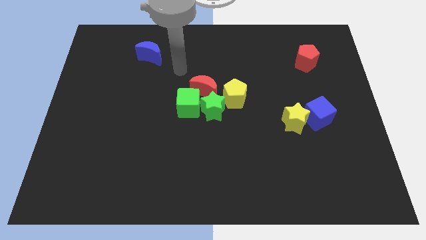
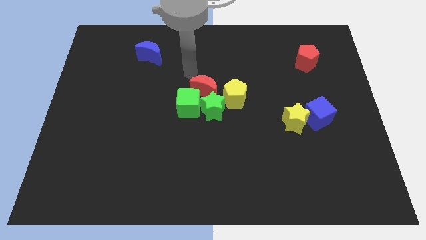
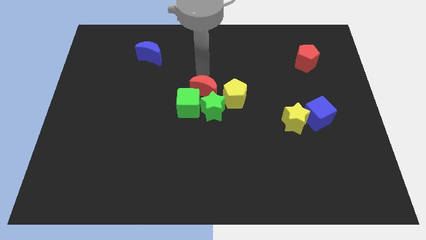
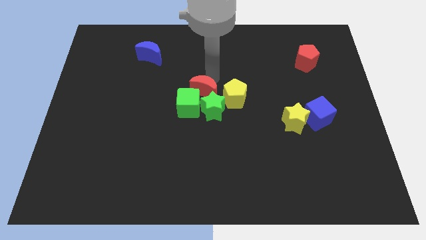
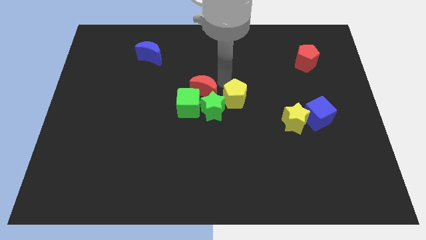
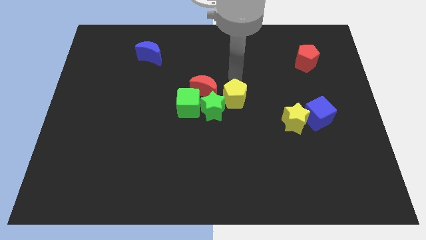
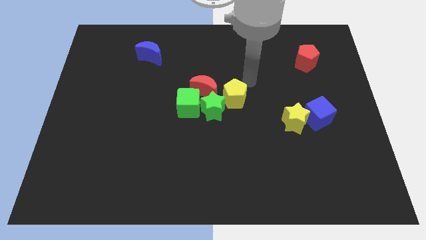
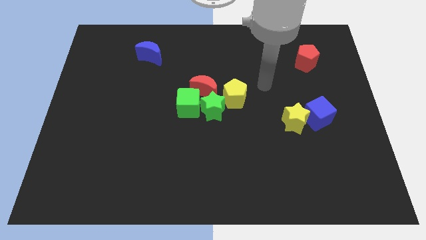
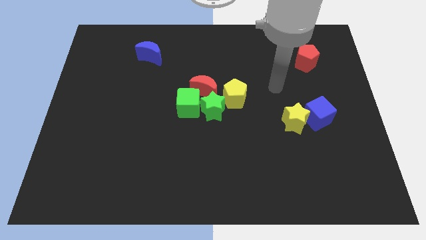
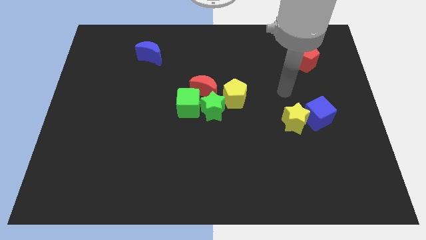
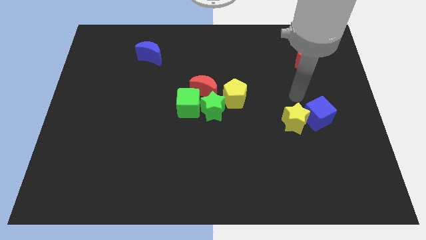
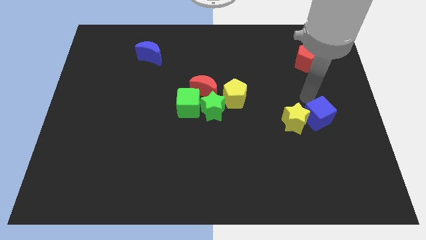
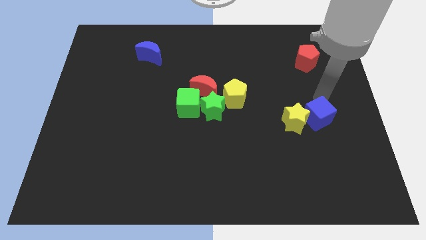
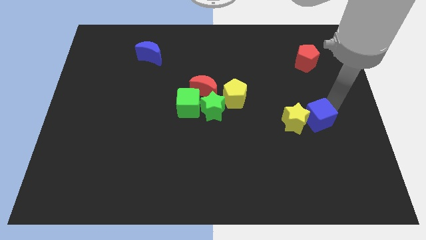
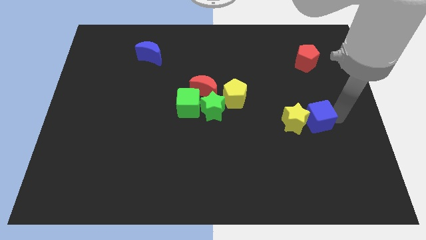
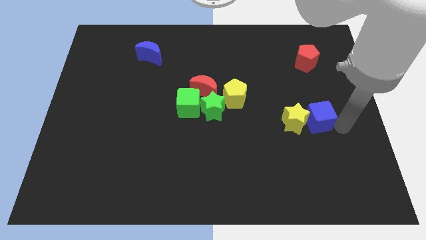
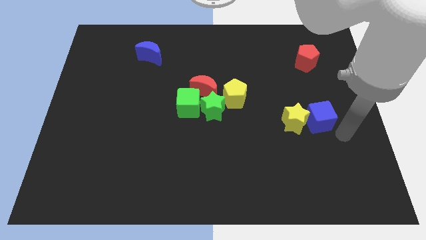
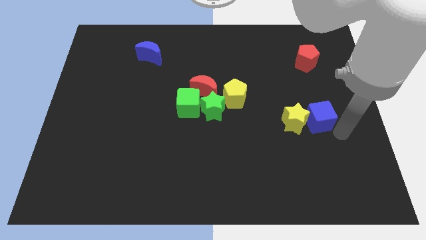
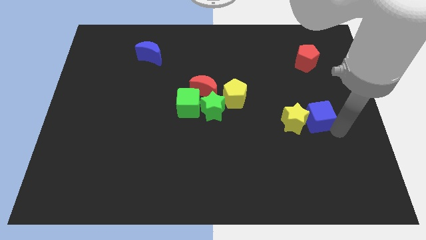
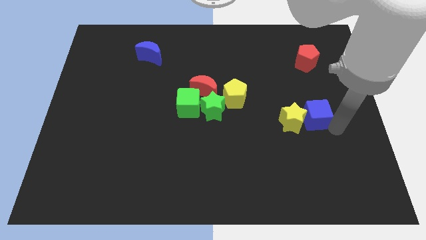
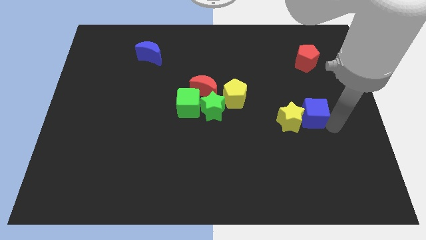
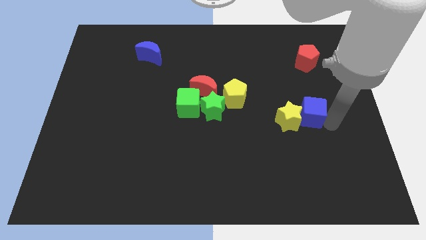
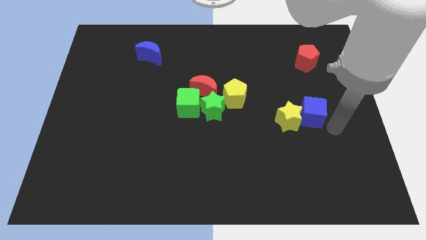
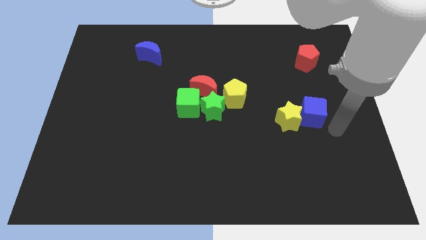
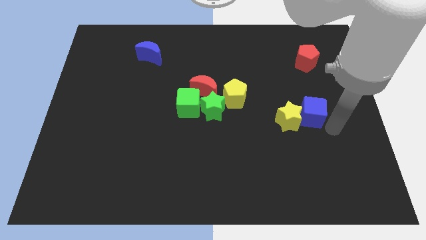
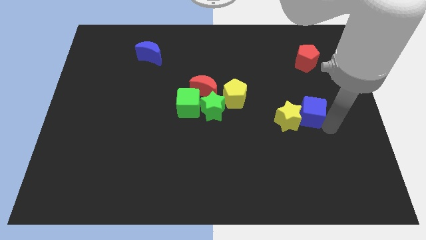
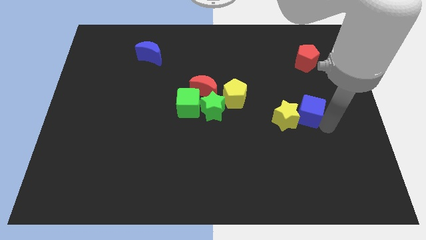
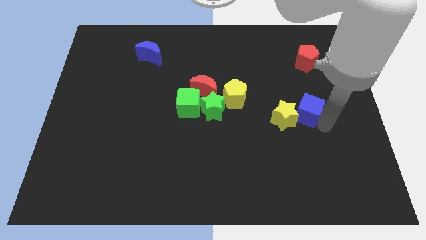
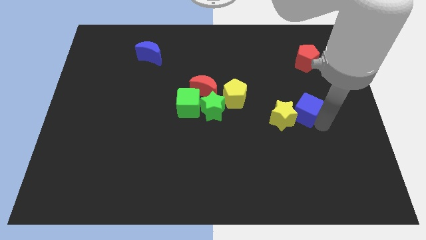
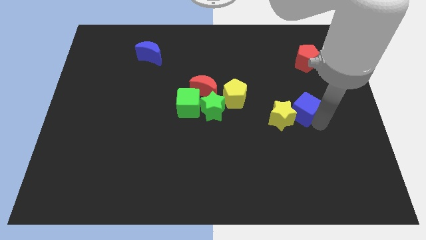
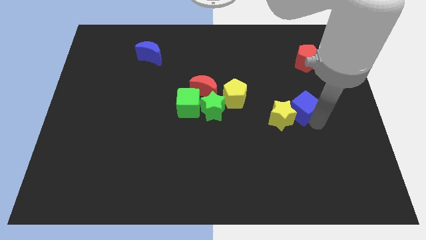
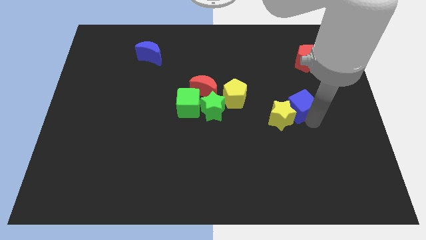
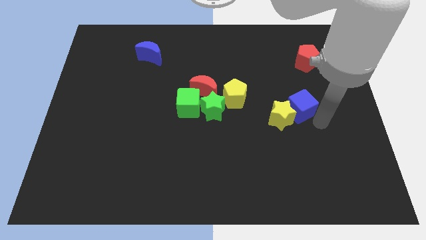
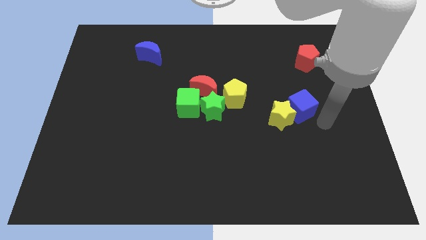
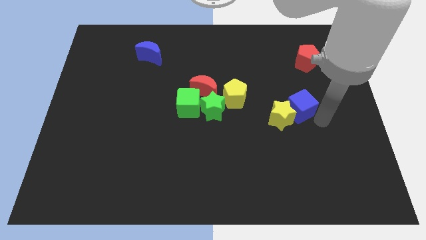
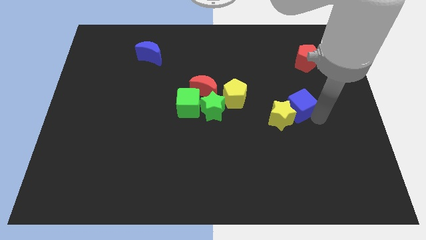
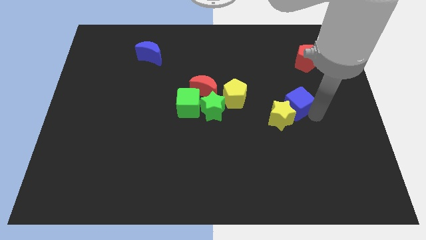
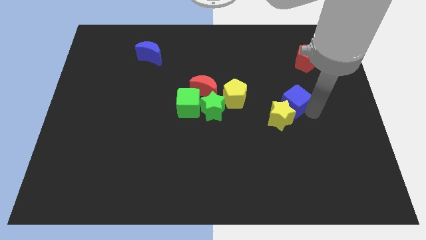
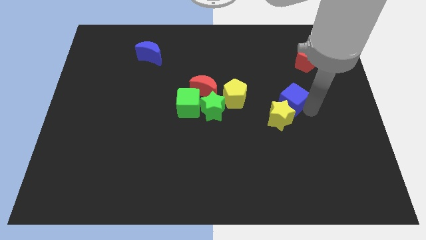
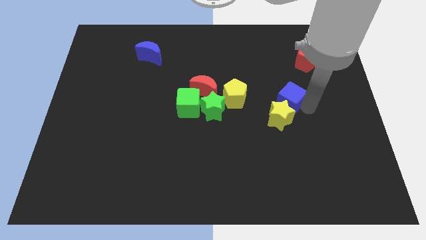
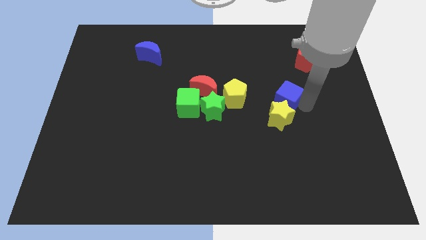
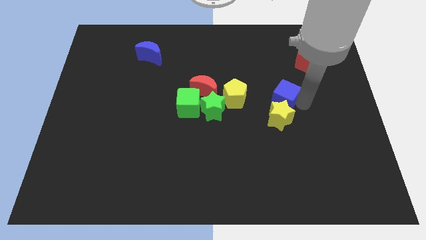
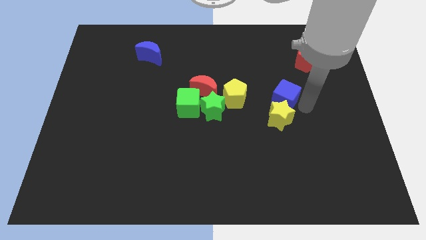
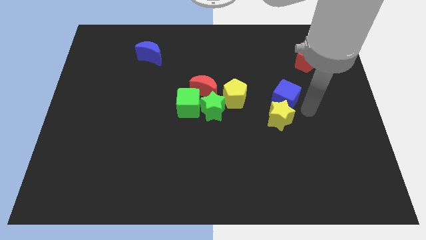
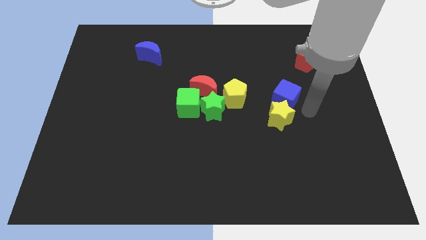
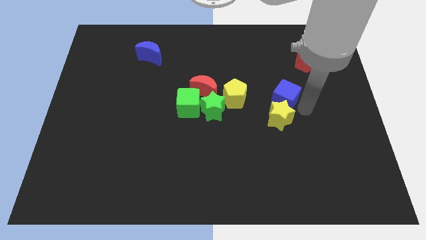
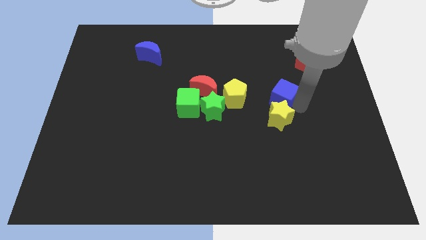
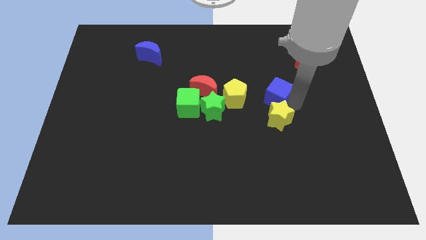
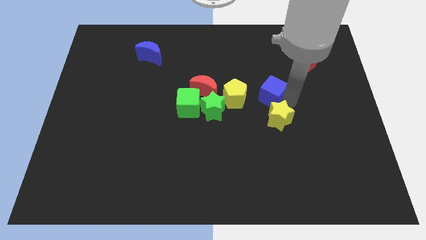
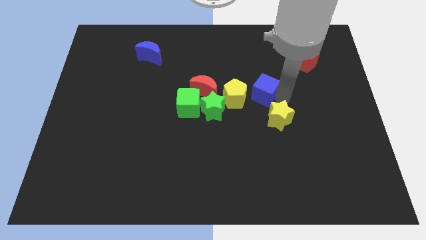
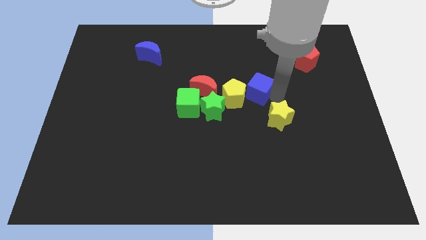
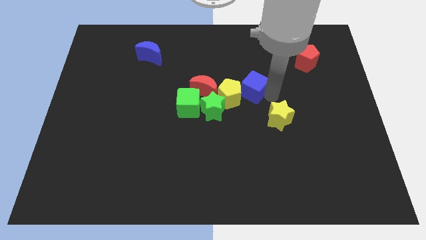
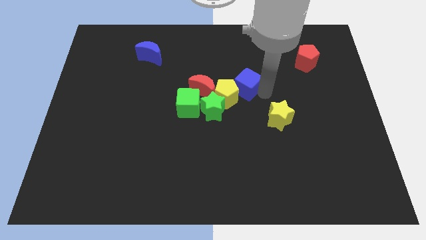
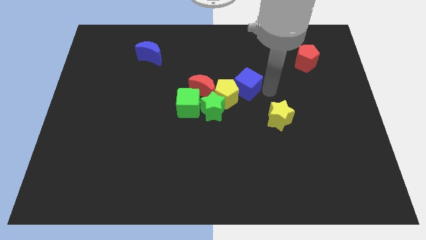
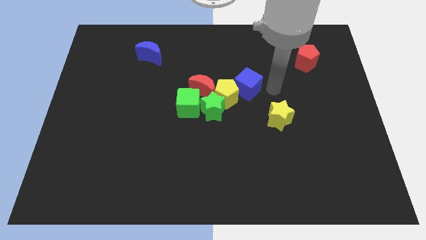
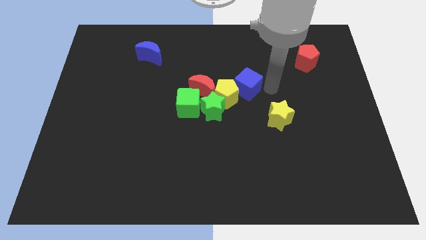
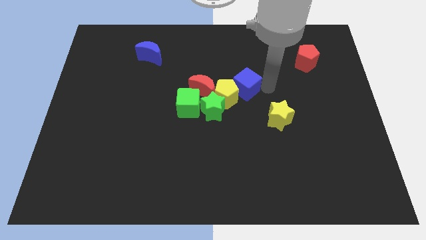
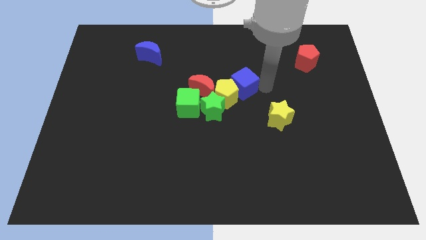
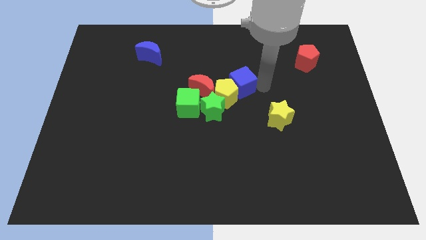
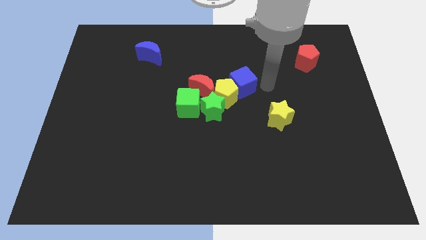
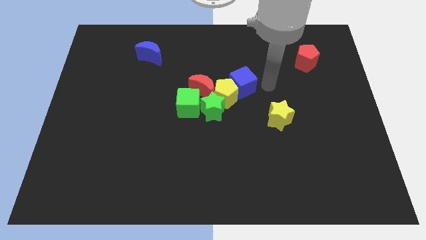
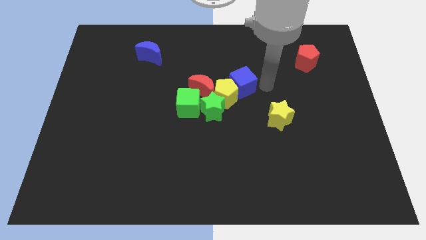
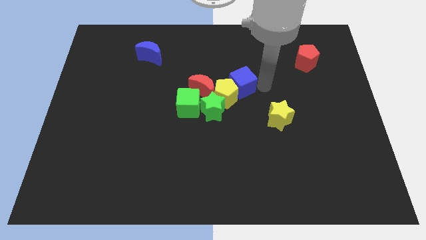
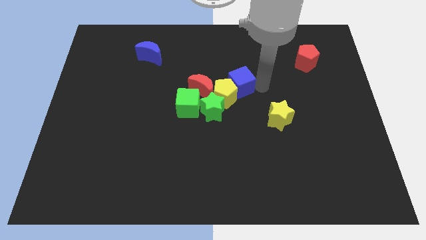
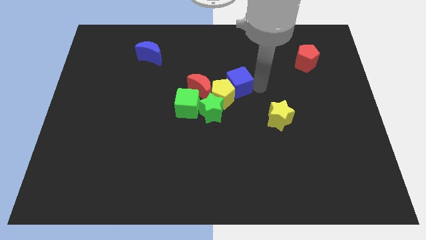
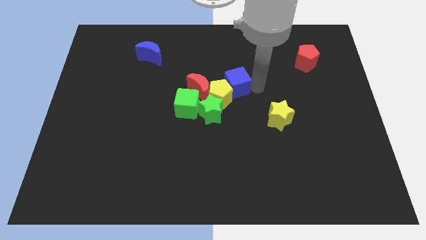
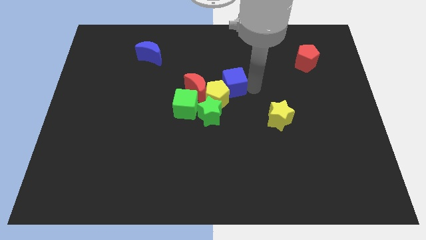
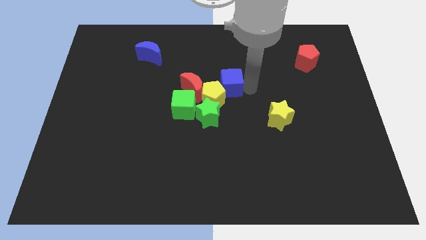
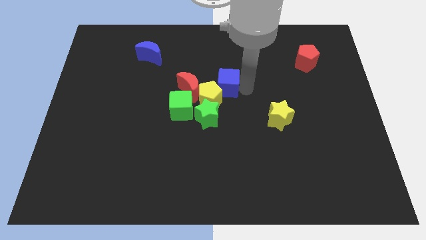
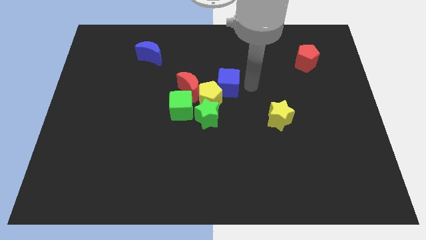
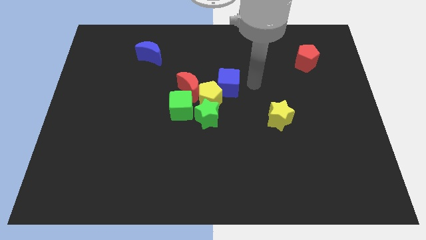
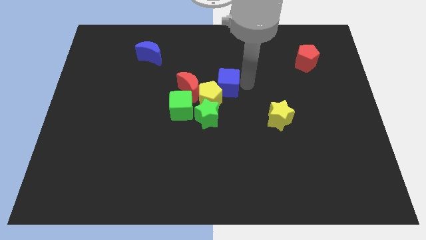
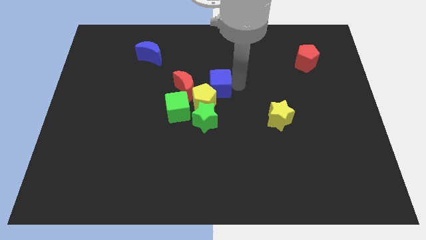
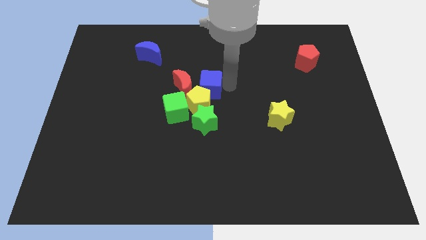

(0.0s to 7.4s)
push the blue cube towards the red moon
